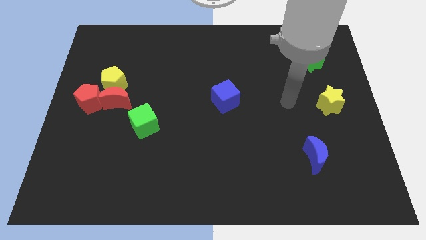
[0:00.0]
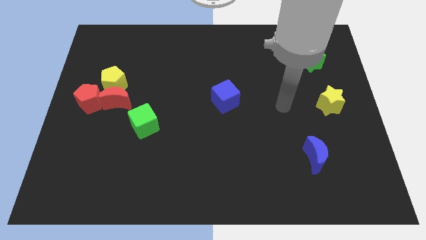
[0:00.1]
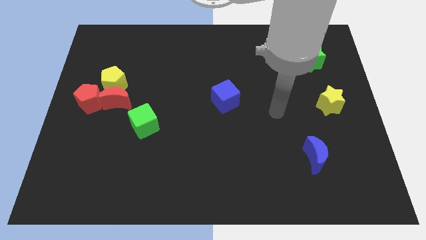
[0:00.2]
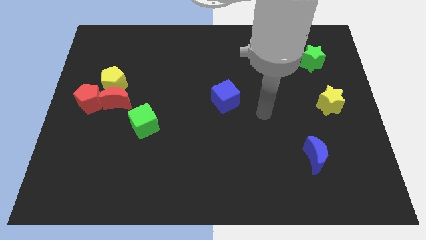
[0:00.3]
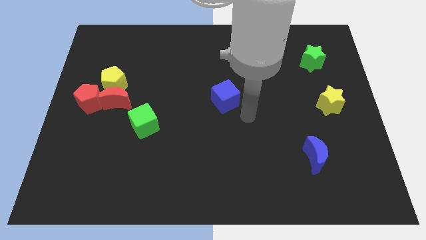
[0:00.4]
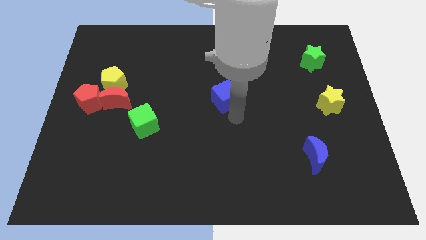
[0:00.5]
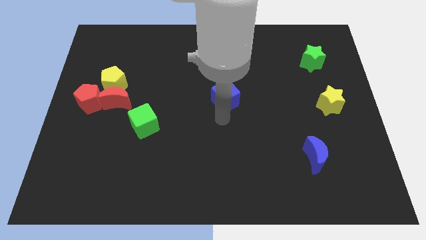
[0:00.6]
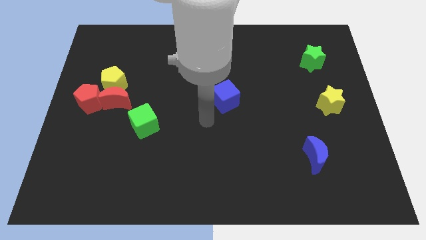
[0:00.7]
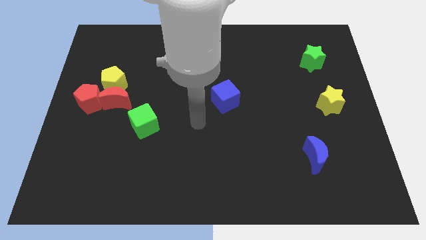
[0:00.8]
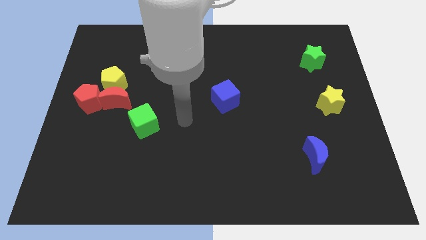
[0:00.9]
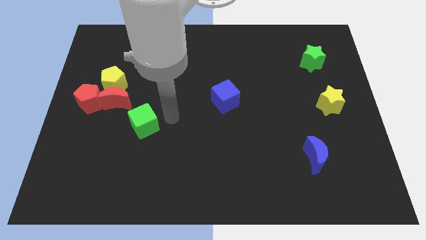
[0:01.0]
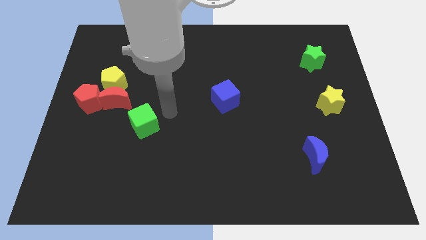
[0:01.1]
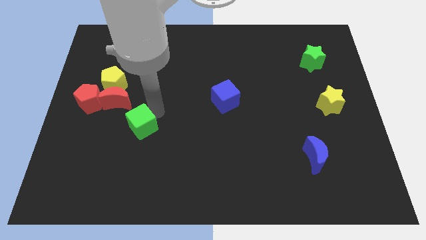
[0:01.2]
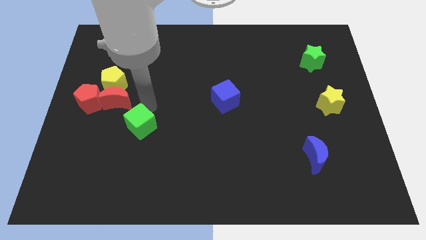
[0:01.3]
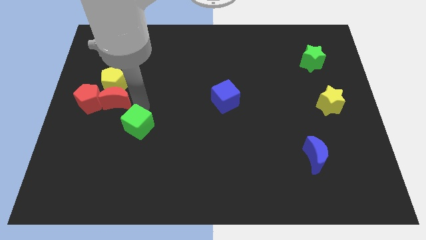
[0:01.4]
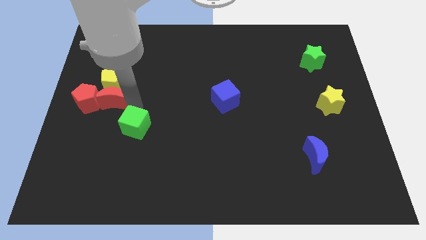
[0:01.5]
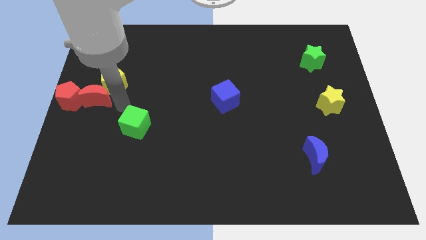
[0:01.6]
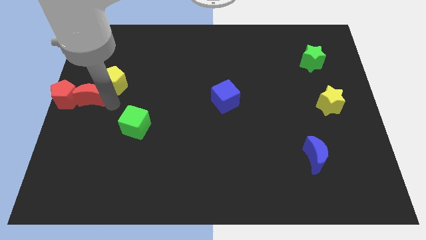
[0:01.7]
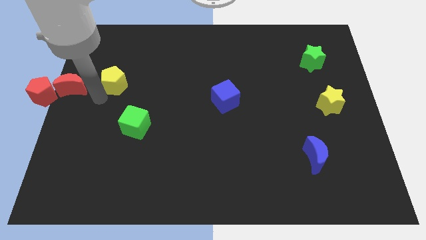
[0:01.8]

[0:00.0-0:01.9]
move the yellow pentagon away from the red moon and red pentagon

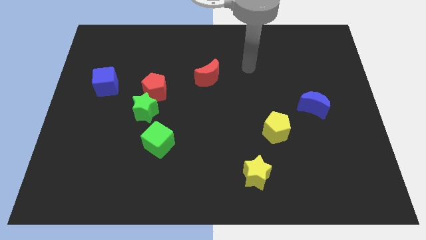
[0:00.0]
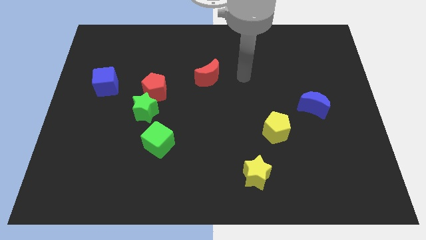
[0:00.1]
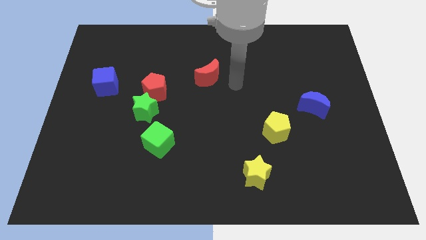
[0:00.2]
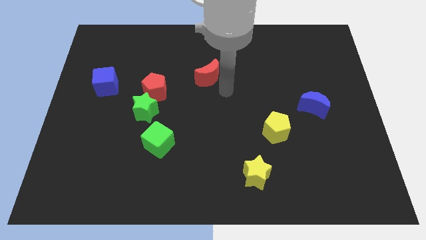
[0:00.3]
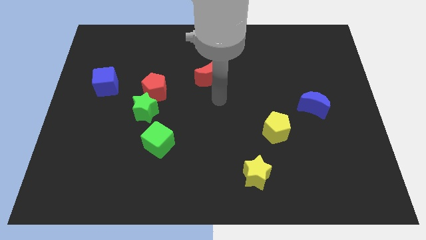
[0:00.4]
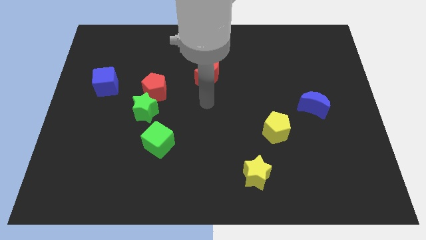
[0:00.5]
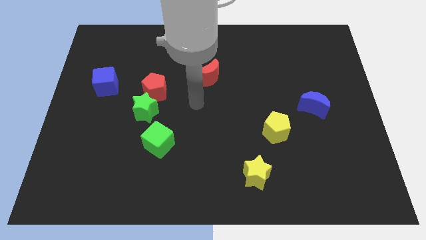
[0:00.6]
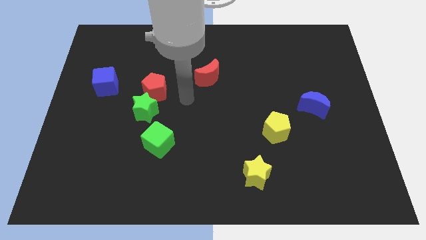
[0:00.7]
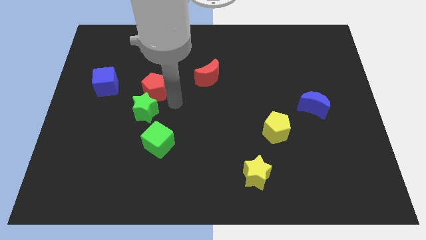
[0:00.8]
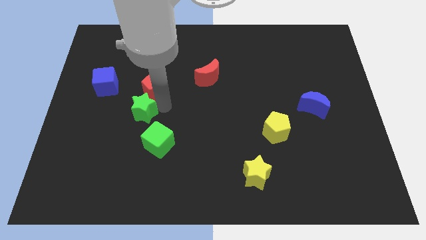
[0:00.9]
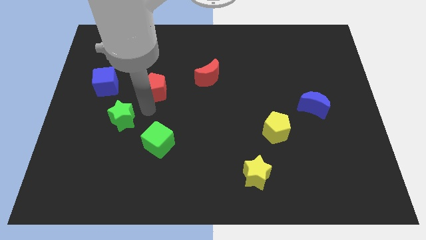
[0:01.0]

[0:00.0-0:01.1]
separate the red pentagon from the green star

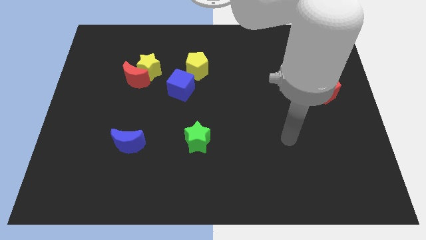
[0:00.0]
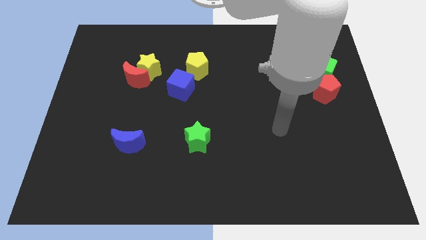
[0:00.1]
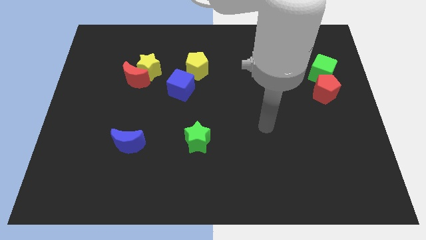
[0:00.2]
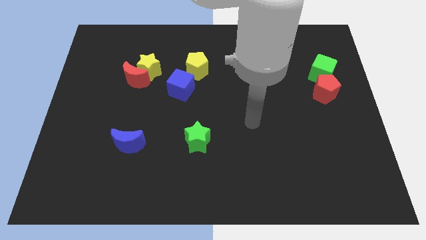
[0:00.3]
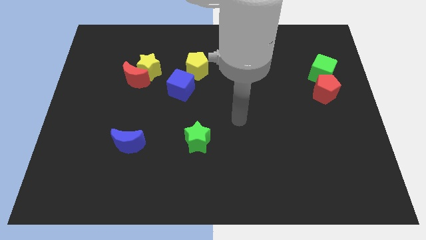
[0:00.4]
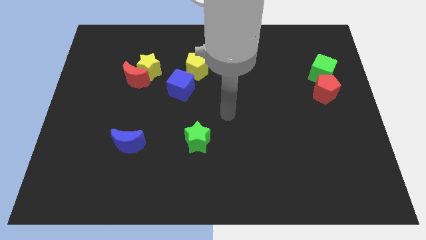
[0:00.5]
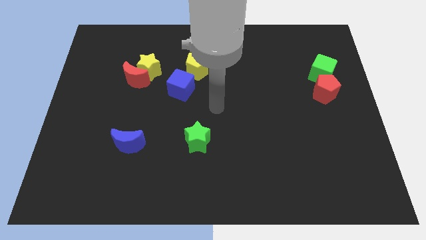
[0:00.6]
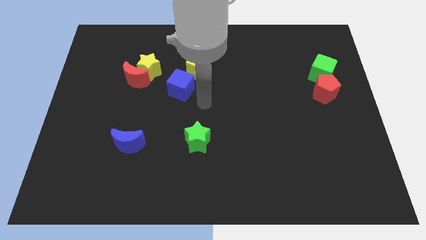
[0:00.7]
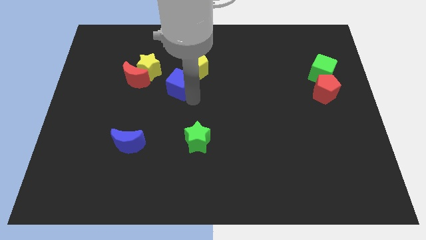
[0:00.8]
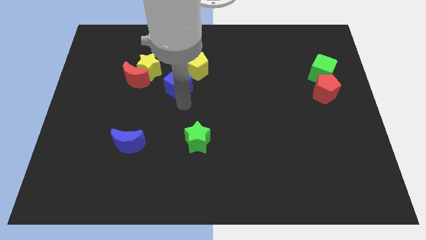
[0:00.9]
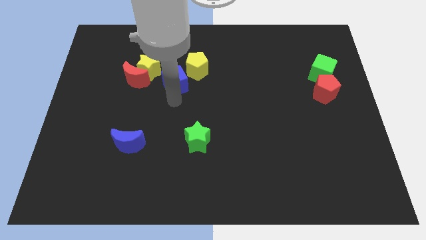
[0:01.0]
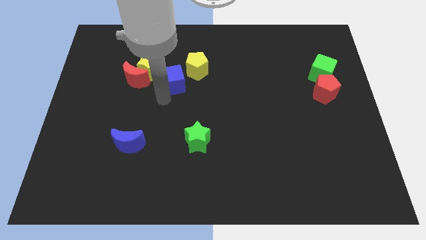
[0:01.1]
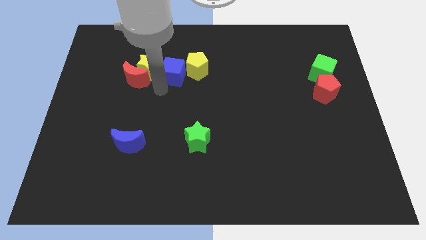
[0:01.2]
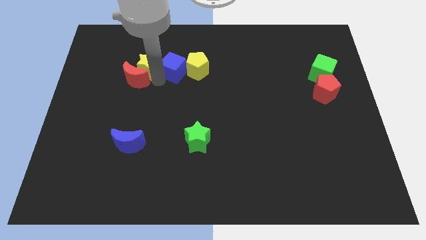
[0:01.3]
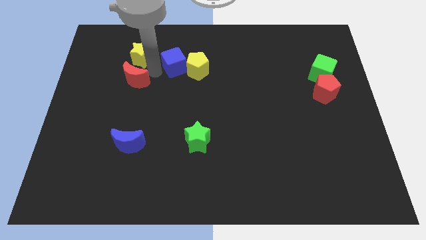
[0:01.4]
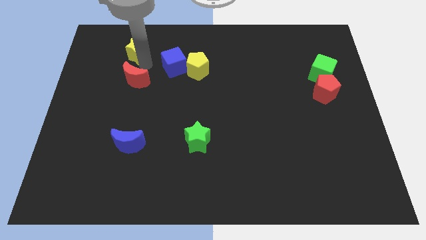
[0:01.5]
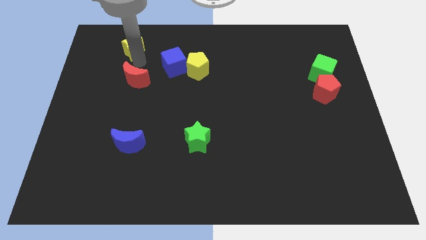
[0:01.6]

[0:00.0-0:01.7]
separate the red moon from the yellow star

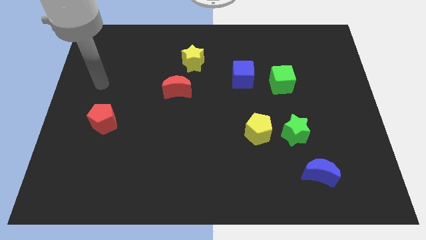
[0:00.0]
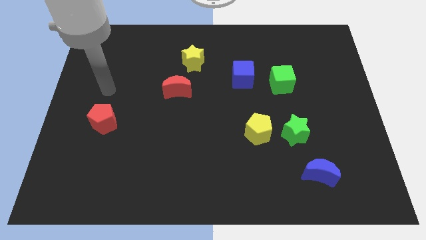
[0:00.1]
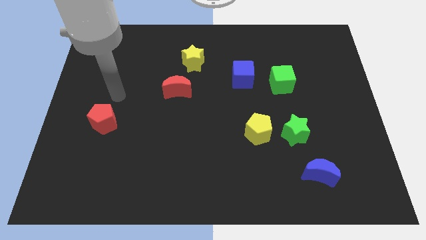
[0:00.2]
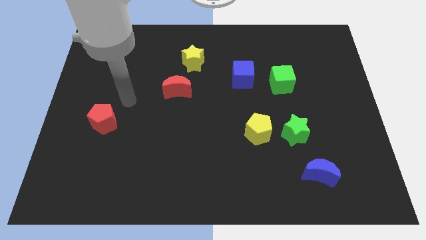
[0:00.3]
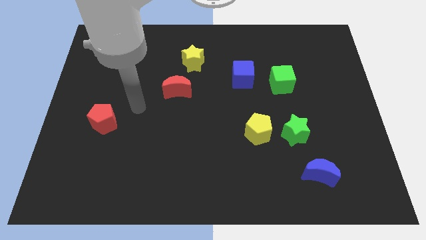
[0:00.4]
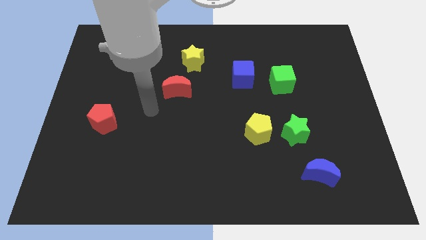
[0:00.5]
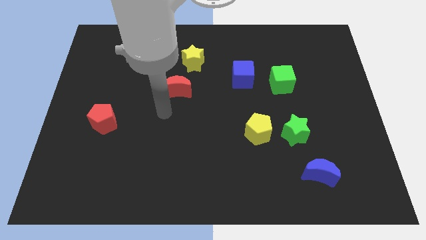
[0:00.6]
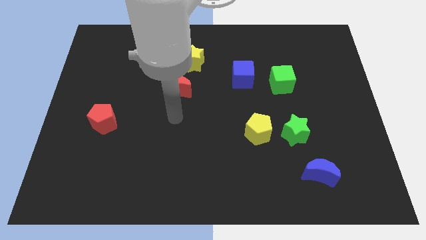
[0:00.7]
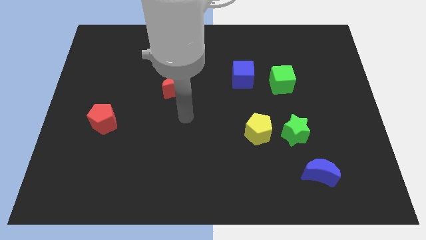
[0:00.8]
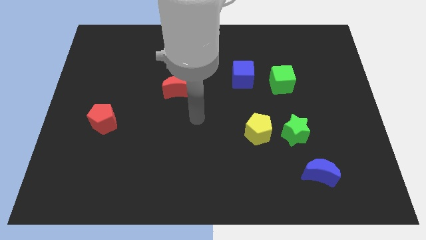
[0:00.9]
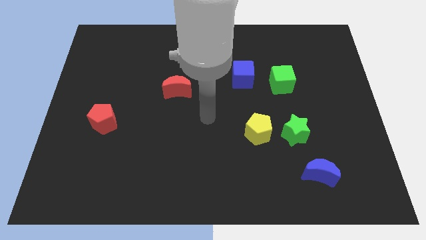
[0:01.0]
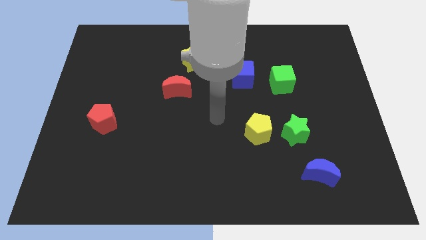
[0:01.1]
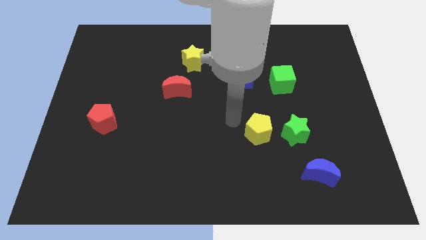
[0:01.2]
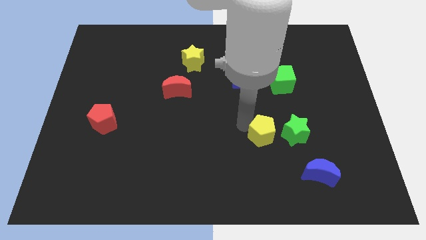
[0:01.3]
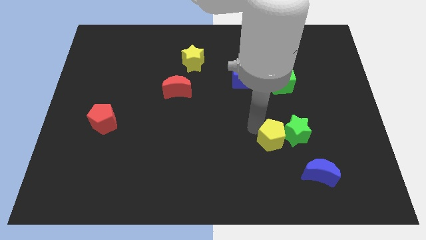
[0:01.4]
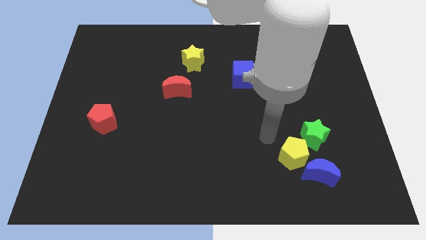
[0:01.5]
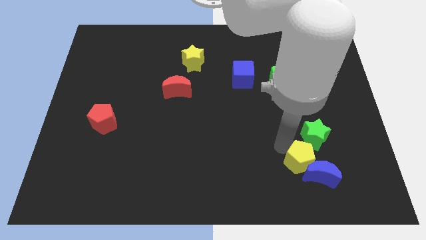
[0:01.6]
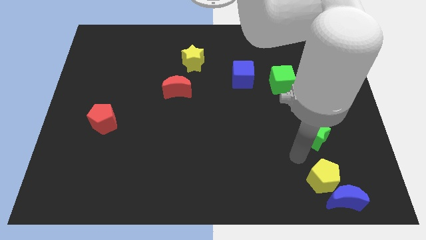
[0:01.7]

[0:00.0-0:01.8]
move the green star away from the yellow pentagon

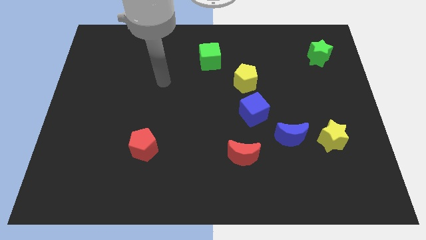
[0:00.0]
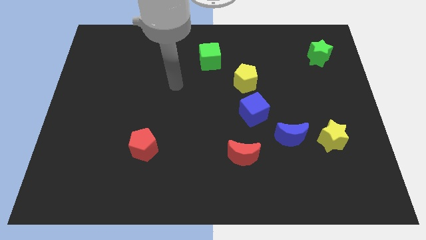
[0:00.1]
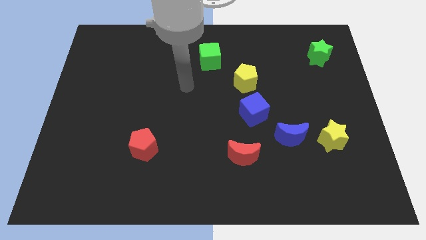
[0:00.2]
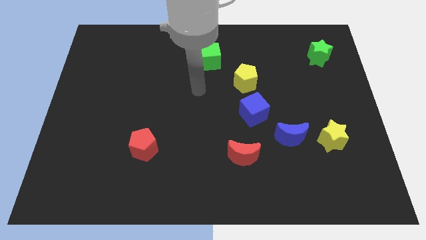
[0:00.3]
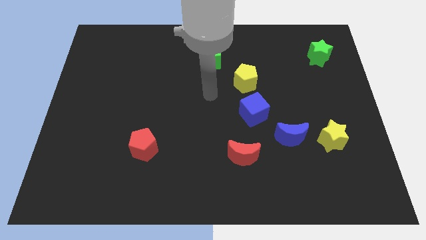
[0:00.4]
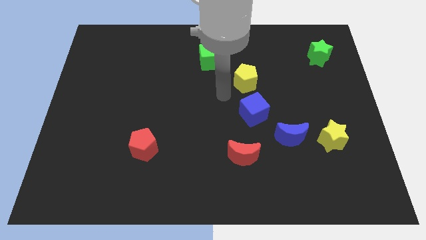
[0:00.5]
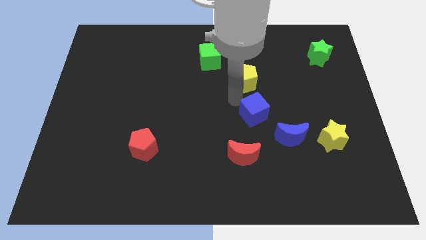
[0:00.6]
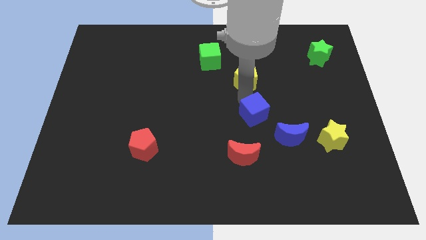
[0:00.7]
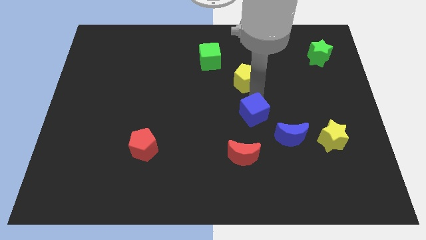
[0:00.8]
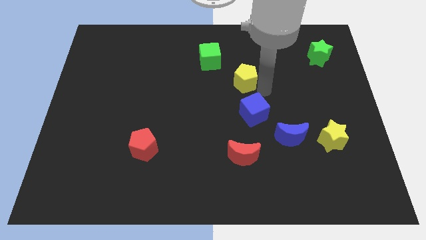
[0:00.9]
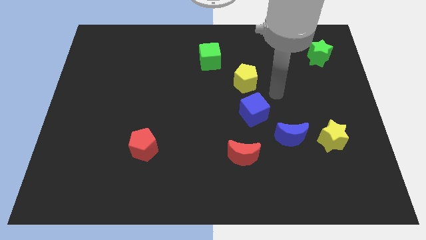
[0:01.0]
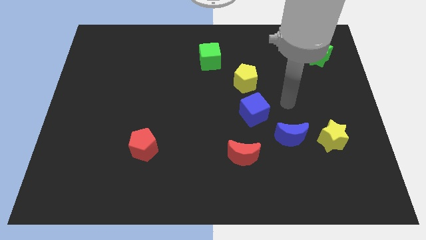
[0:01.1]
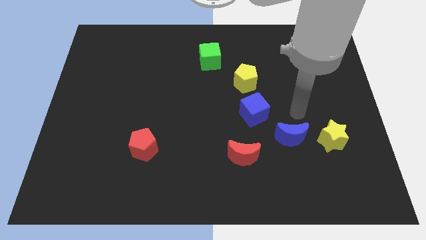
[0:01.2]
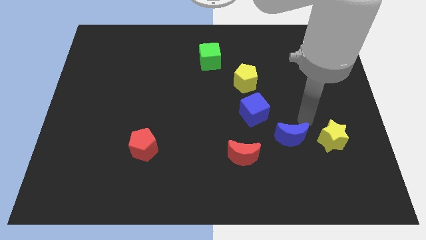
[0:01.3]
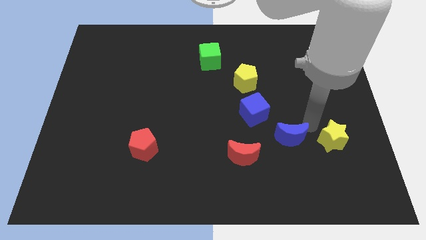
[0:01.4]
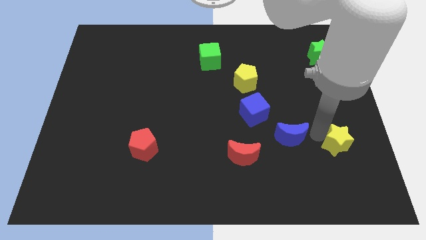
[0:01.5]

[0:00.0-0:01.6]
pull the blue moon apart from the yellow star

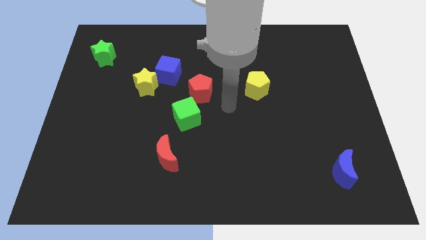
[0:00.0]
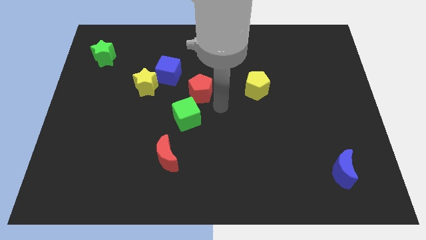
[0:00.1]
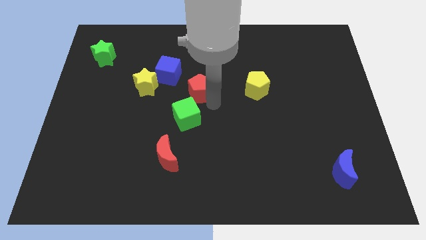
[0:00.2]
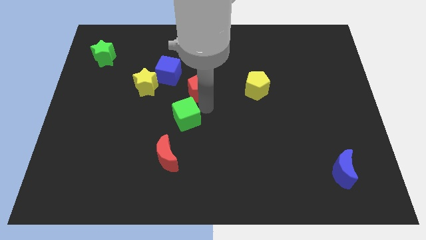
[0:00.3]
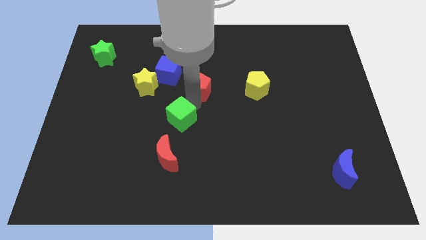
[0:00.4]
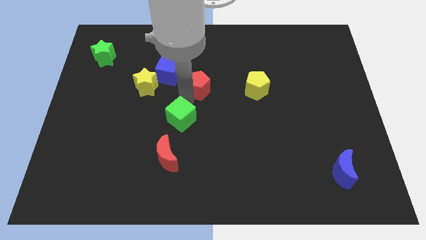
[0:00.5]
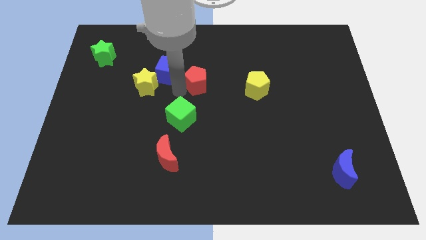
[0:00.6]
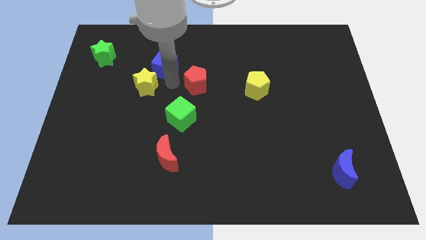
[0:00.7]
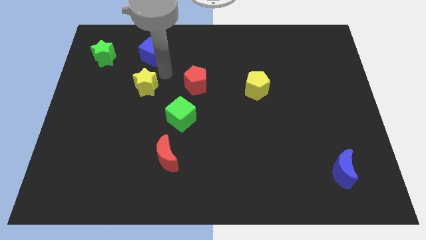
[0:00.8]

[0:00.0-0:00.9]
pull the yellow star apart from the blue cube

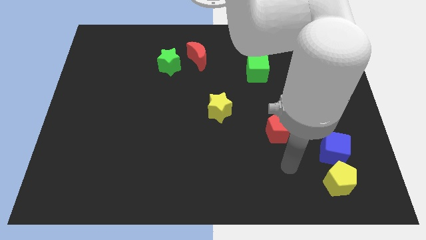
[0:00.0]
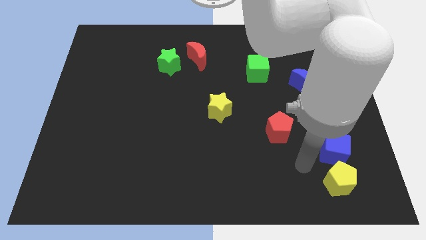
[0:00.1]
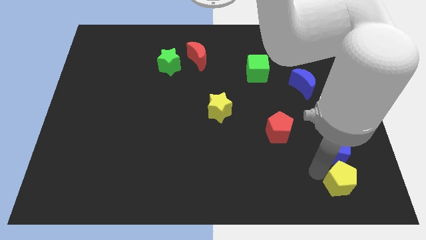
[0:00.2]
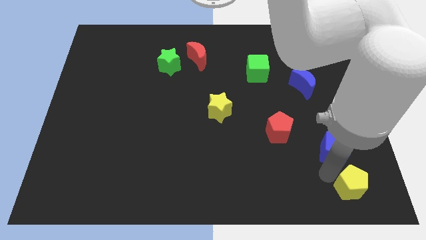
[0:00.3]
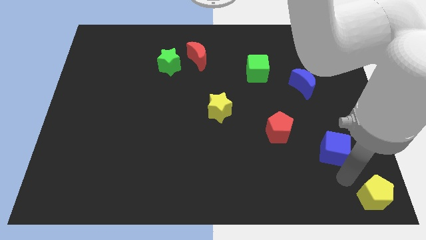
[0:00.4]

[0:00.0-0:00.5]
move the blue cube away from the yellow pentagon
